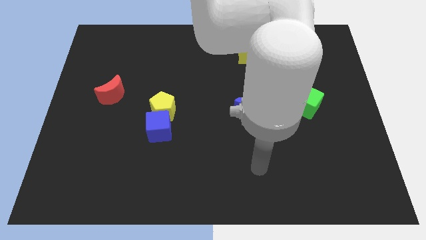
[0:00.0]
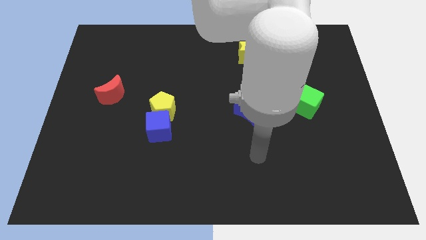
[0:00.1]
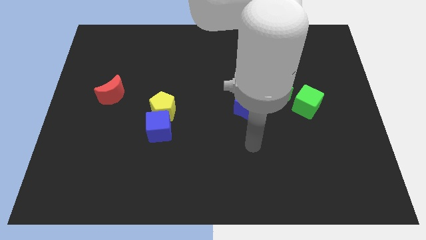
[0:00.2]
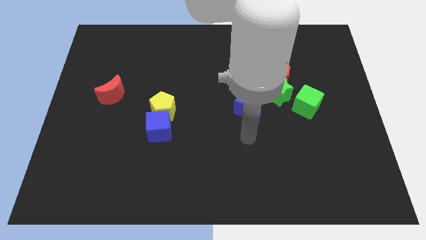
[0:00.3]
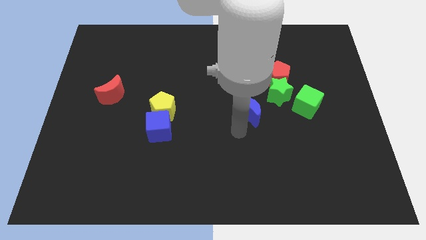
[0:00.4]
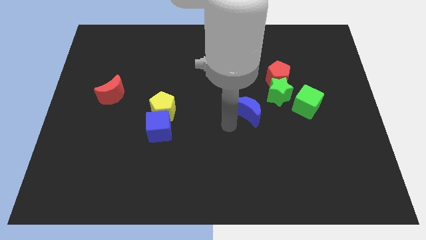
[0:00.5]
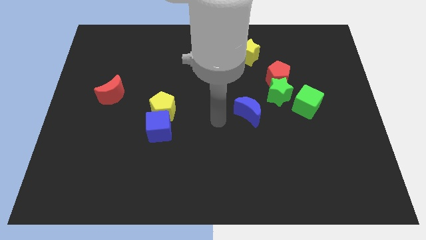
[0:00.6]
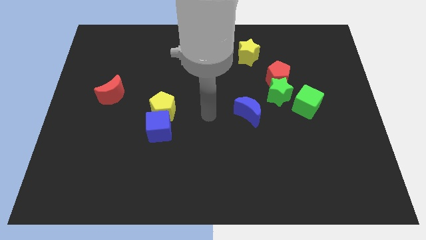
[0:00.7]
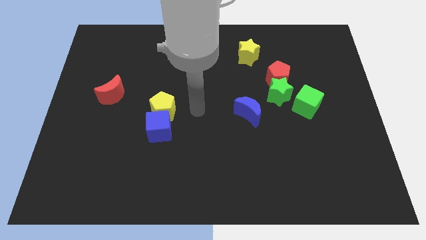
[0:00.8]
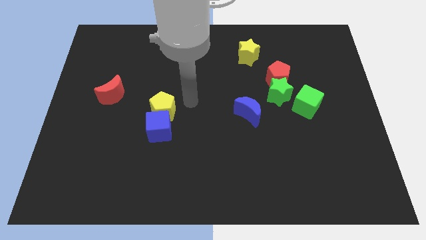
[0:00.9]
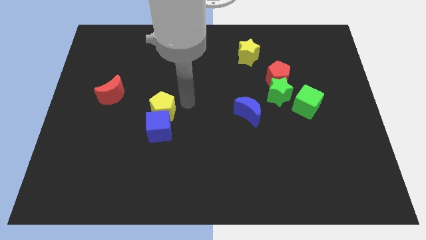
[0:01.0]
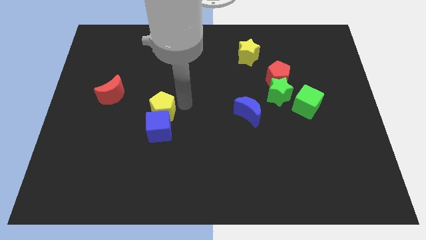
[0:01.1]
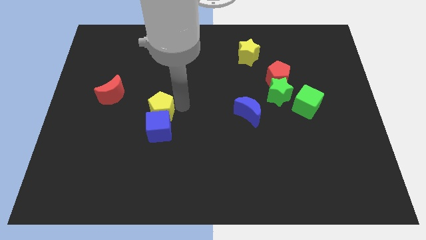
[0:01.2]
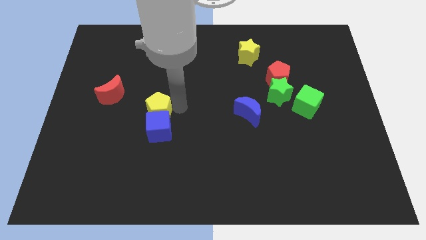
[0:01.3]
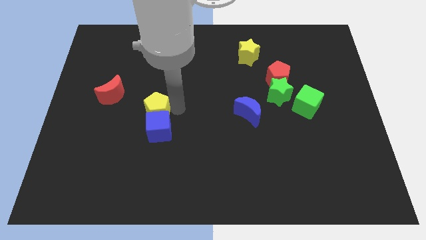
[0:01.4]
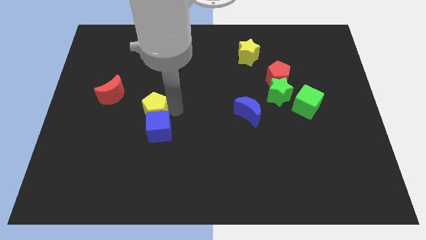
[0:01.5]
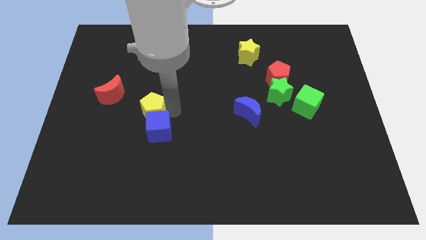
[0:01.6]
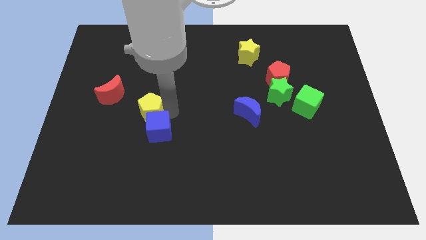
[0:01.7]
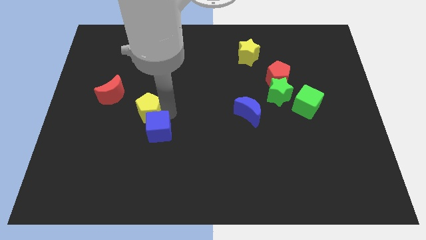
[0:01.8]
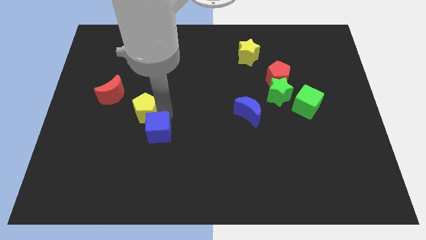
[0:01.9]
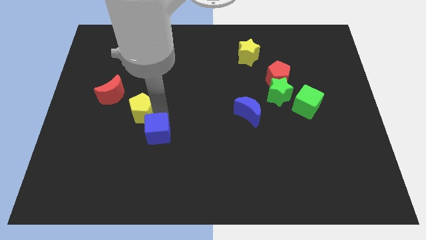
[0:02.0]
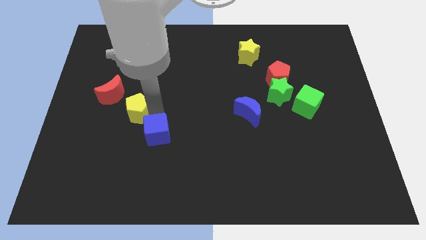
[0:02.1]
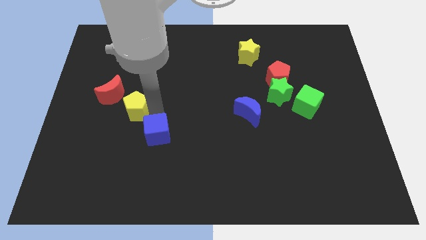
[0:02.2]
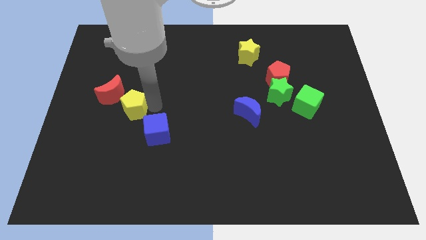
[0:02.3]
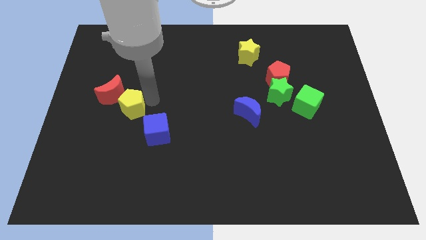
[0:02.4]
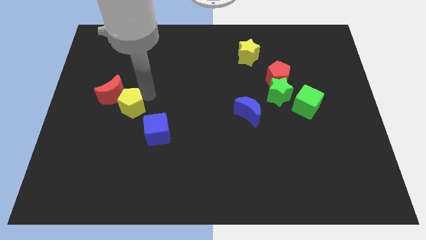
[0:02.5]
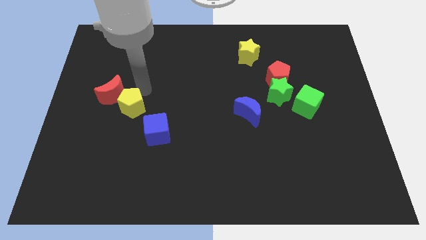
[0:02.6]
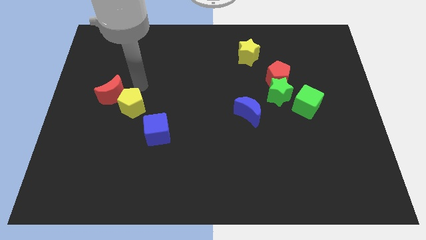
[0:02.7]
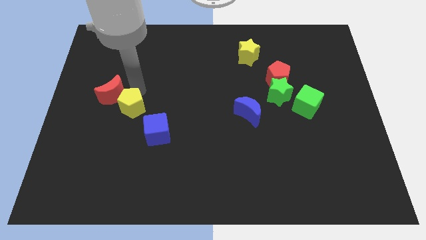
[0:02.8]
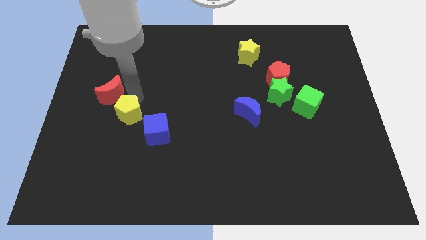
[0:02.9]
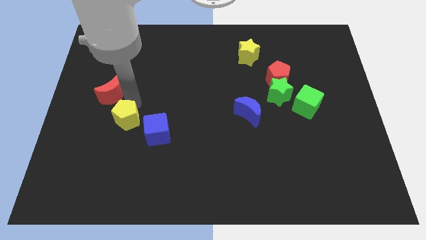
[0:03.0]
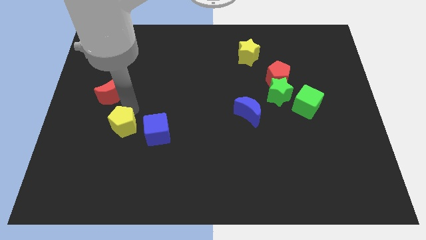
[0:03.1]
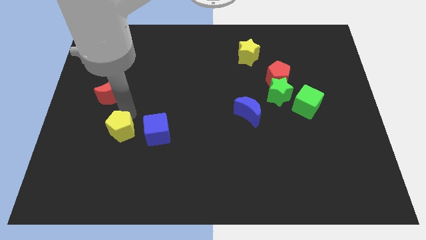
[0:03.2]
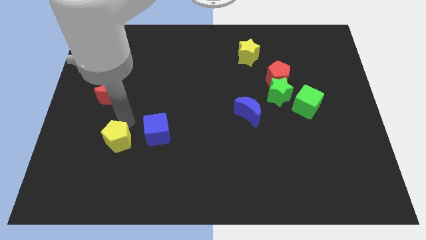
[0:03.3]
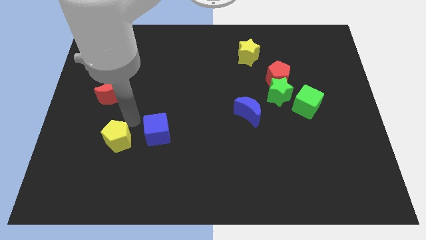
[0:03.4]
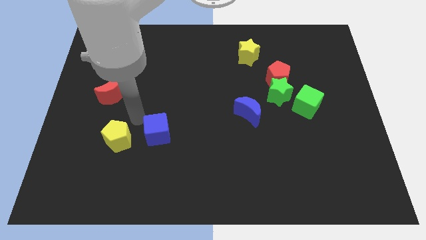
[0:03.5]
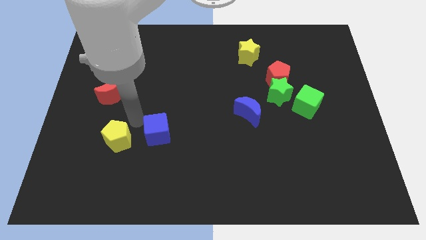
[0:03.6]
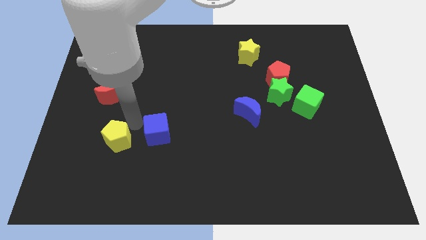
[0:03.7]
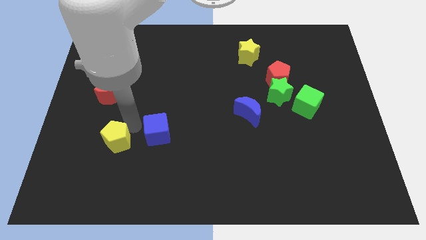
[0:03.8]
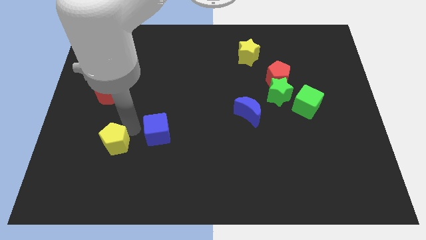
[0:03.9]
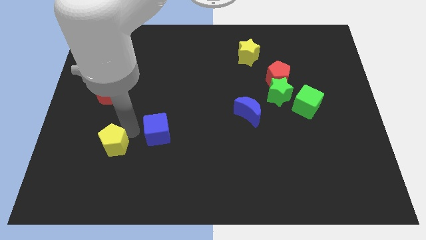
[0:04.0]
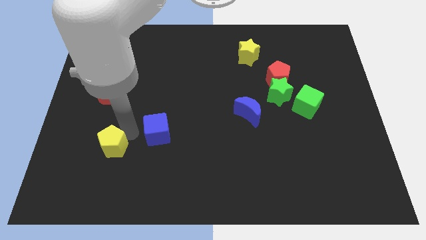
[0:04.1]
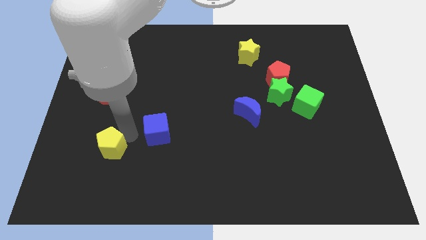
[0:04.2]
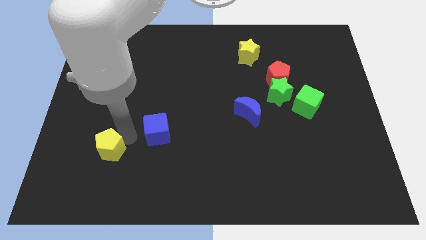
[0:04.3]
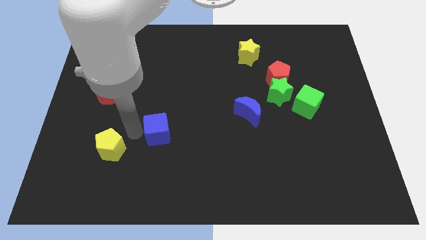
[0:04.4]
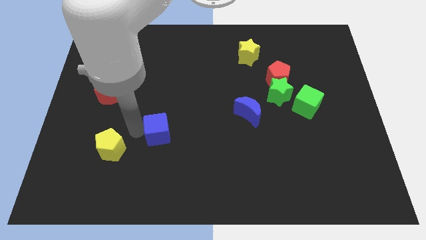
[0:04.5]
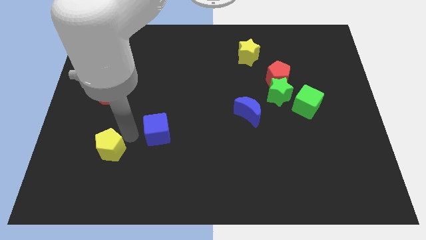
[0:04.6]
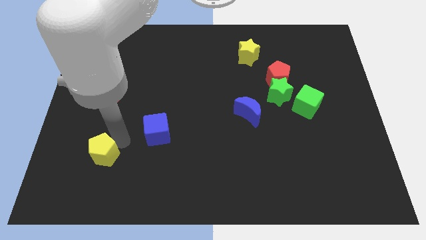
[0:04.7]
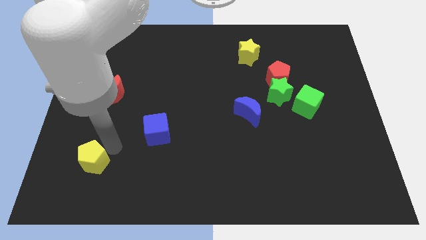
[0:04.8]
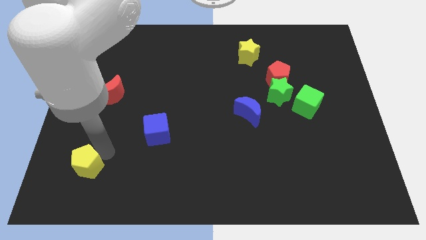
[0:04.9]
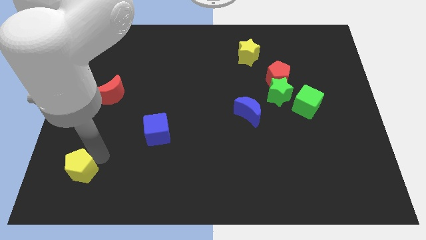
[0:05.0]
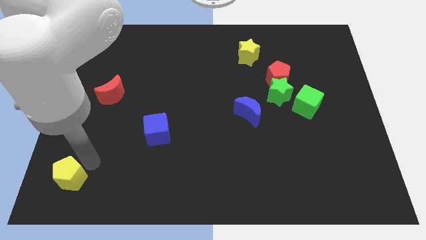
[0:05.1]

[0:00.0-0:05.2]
move the yellow pentagon to the bottom left corner
